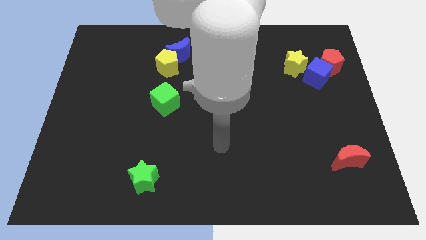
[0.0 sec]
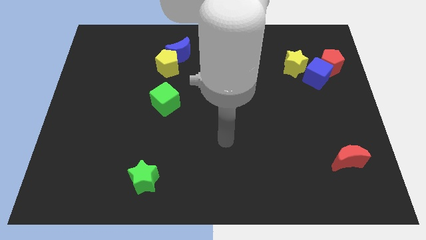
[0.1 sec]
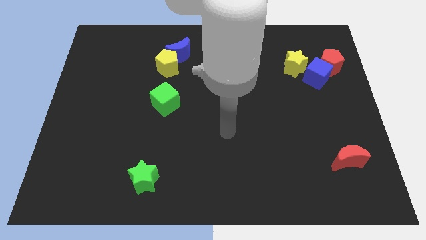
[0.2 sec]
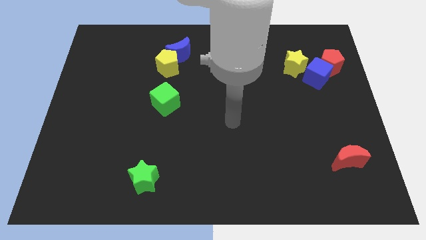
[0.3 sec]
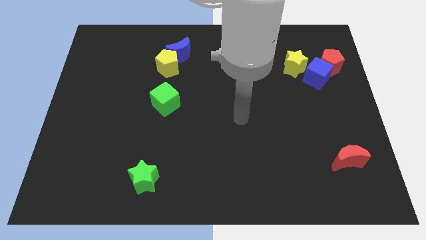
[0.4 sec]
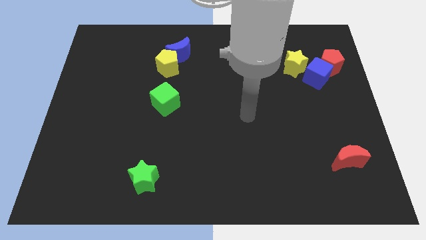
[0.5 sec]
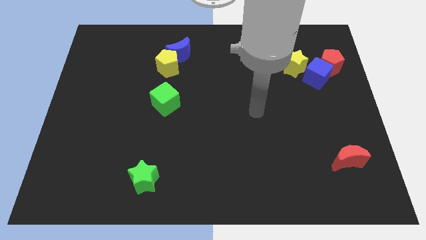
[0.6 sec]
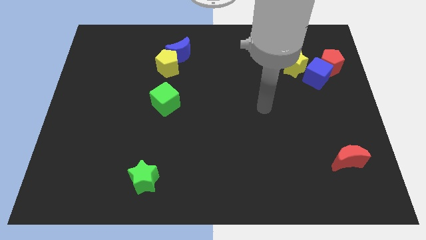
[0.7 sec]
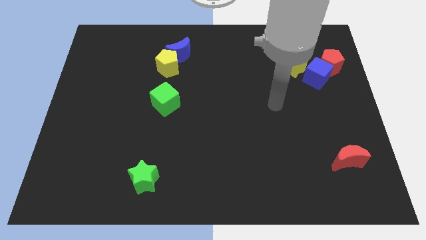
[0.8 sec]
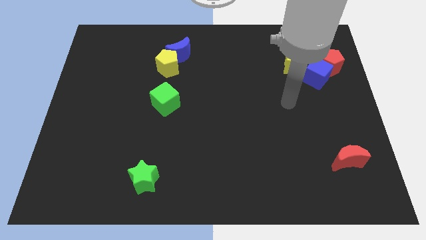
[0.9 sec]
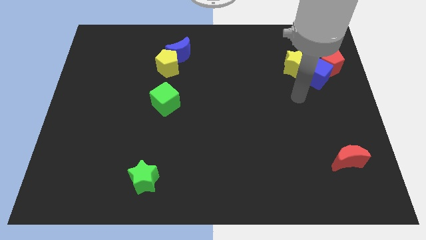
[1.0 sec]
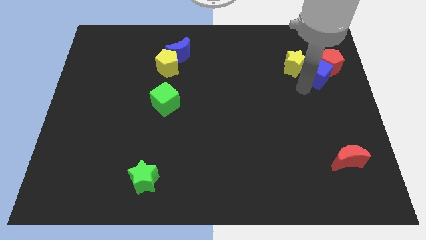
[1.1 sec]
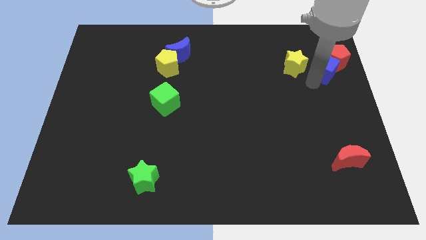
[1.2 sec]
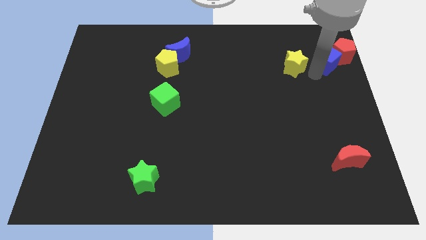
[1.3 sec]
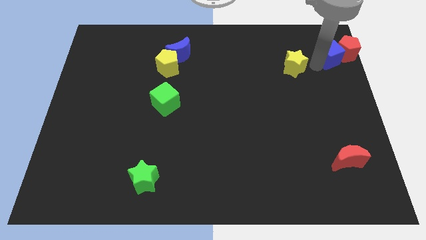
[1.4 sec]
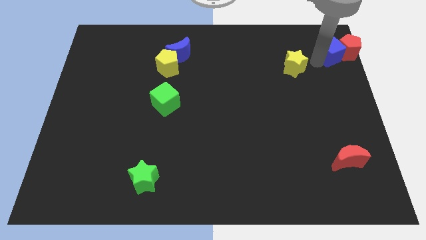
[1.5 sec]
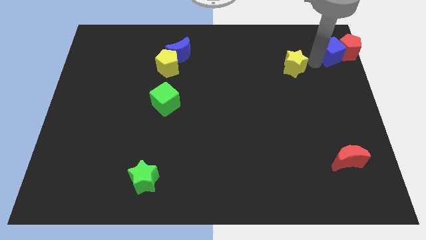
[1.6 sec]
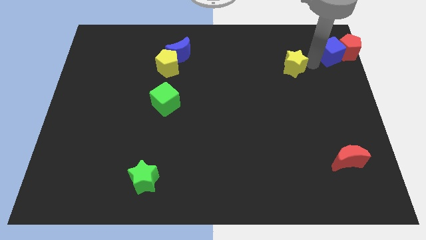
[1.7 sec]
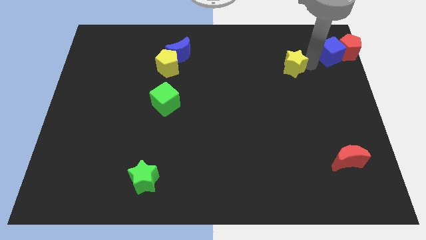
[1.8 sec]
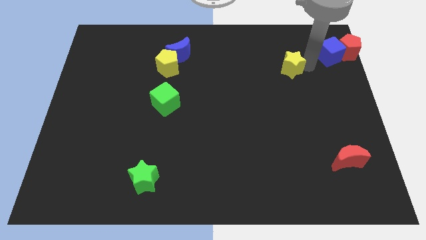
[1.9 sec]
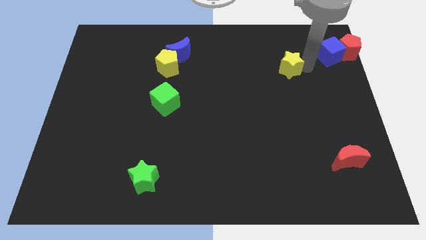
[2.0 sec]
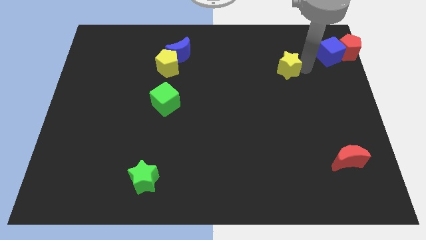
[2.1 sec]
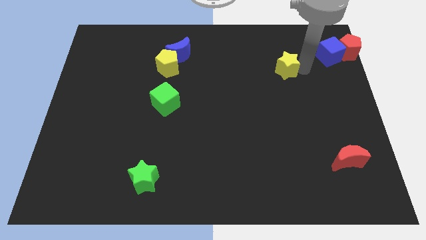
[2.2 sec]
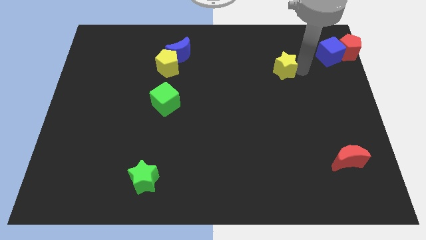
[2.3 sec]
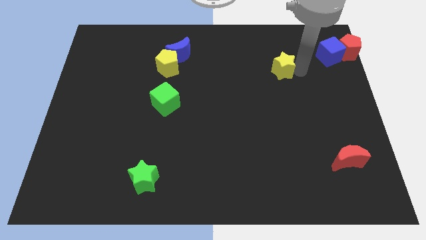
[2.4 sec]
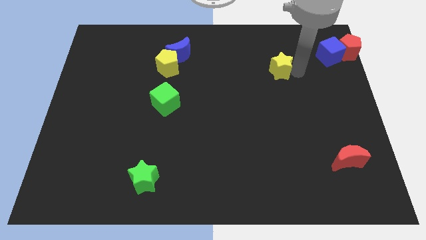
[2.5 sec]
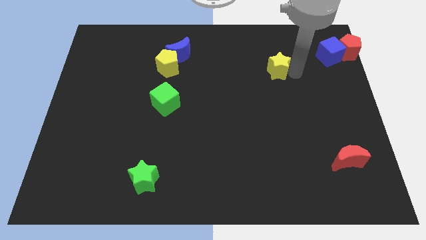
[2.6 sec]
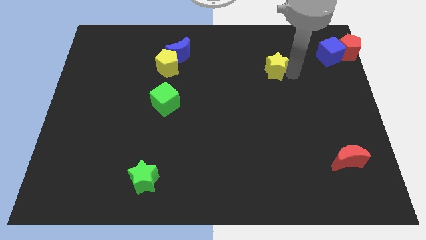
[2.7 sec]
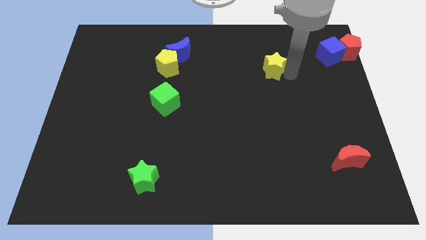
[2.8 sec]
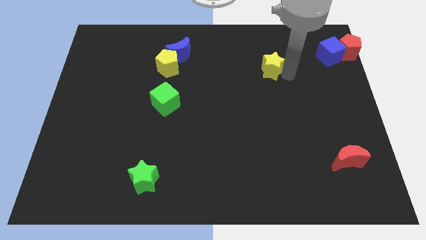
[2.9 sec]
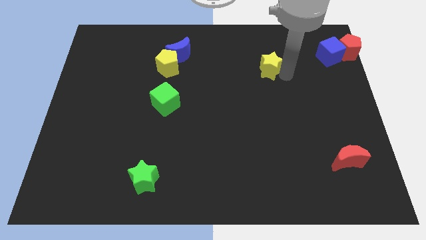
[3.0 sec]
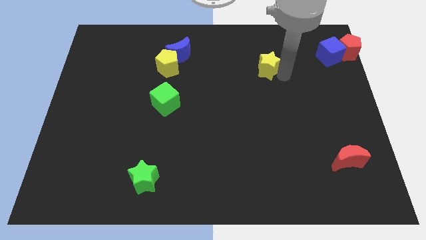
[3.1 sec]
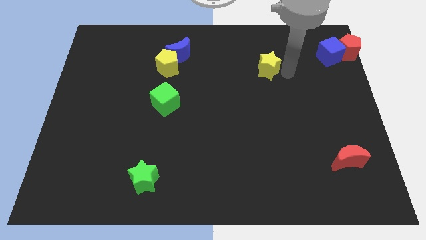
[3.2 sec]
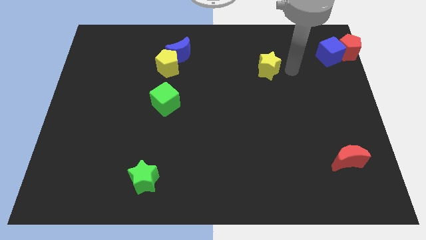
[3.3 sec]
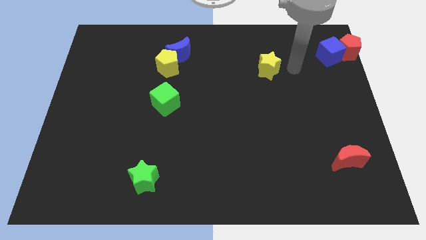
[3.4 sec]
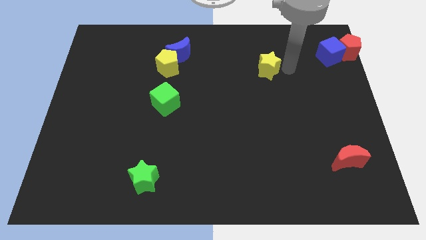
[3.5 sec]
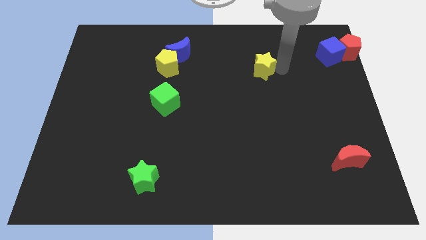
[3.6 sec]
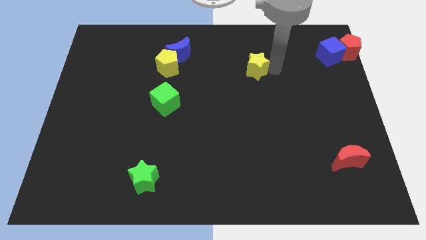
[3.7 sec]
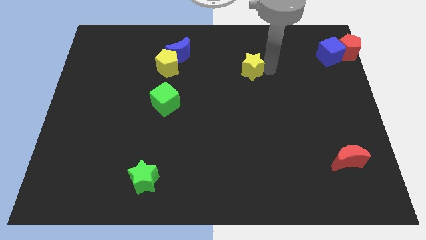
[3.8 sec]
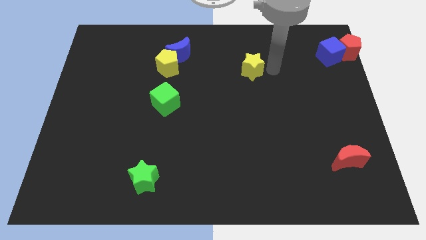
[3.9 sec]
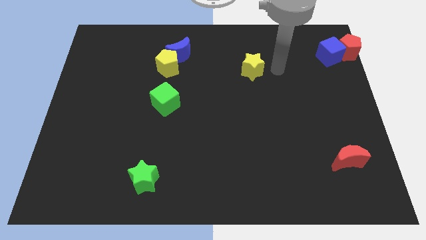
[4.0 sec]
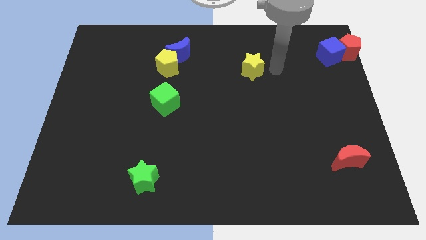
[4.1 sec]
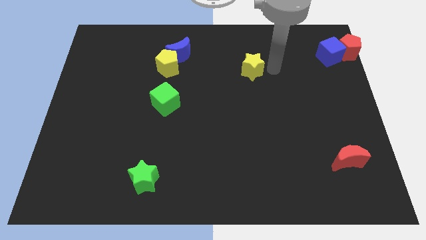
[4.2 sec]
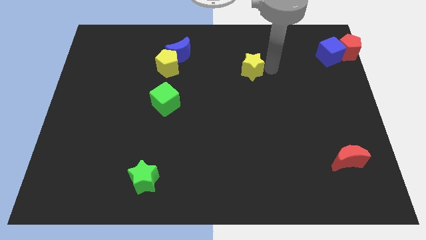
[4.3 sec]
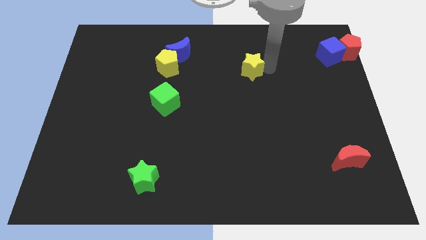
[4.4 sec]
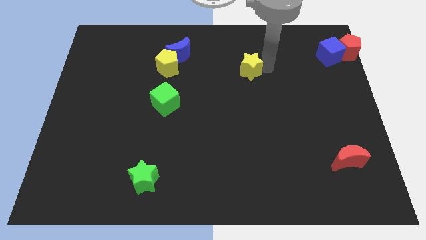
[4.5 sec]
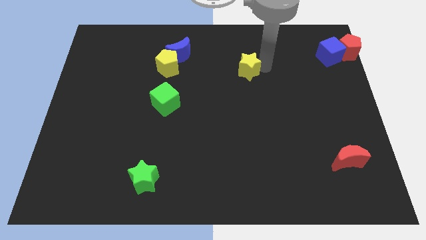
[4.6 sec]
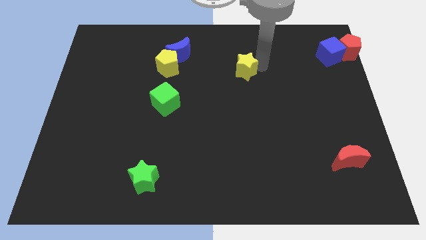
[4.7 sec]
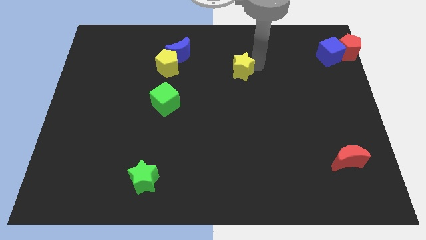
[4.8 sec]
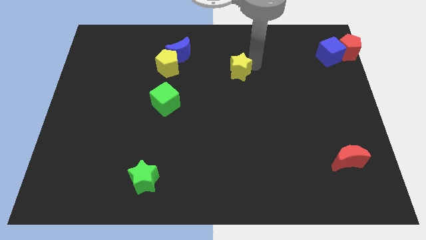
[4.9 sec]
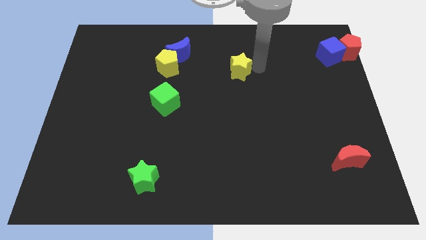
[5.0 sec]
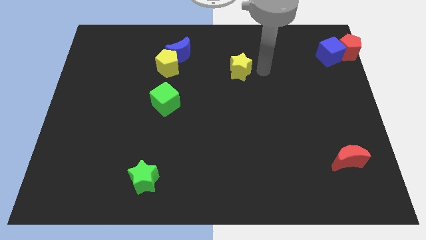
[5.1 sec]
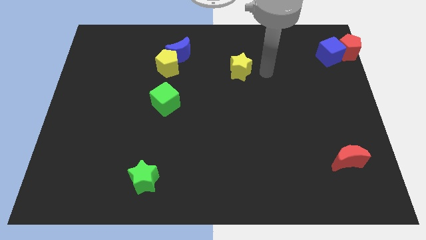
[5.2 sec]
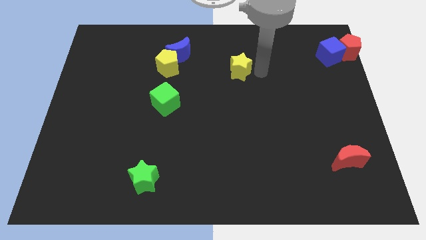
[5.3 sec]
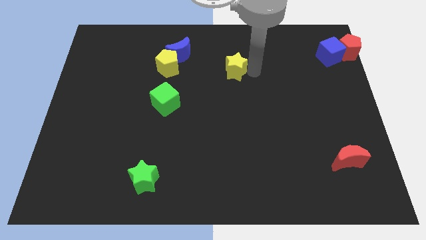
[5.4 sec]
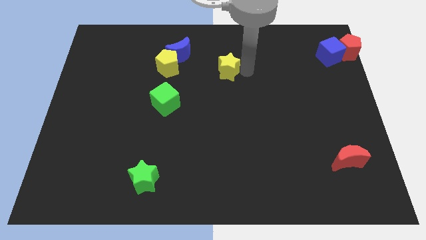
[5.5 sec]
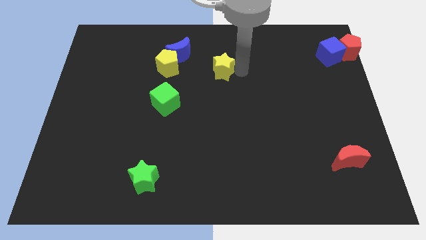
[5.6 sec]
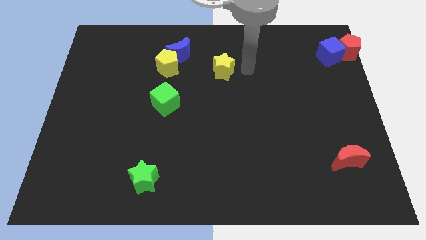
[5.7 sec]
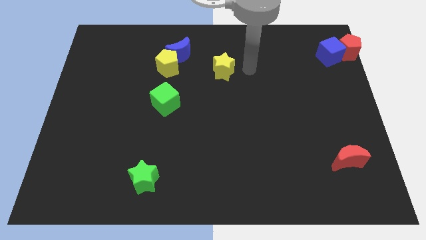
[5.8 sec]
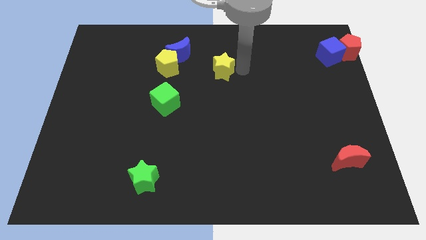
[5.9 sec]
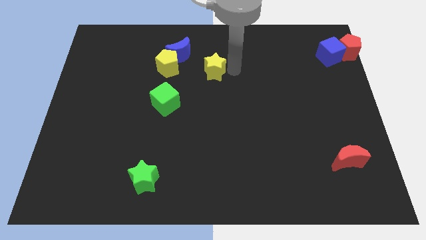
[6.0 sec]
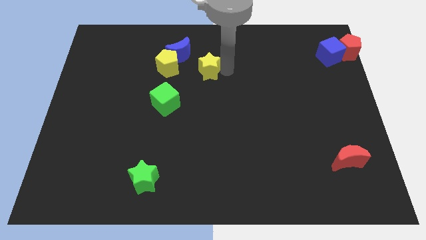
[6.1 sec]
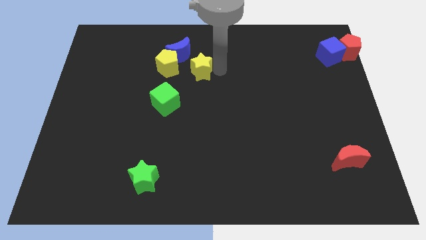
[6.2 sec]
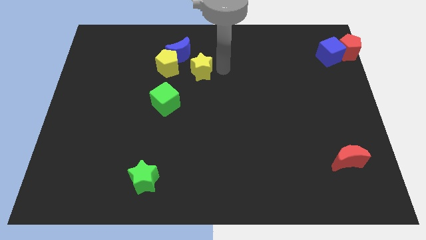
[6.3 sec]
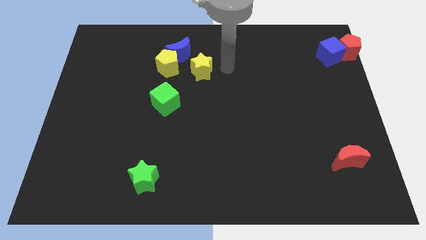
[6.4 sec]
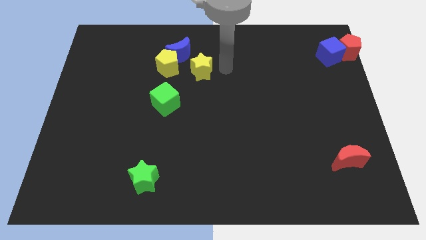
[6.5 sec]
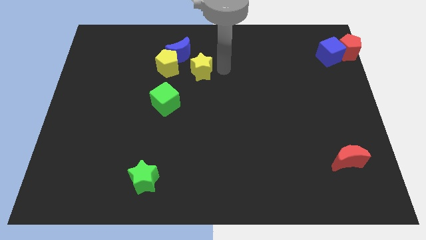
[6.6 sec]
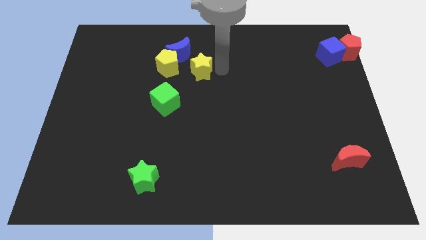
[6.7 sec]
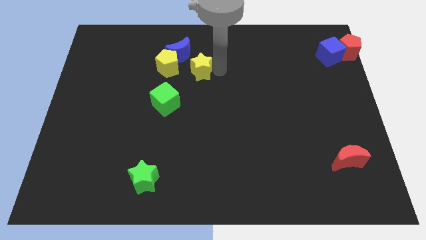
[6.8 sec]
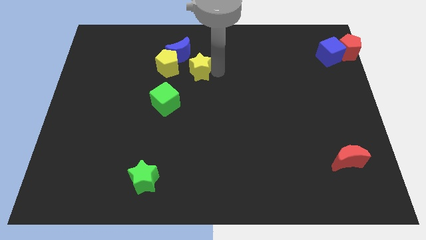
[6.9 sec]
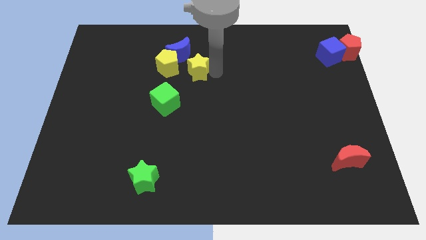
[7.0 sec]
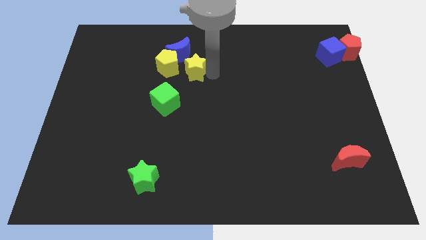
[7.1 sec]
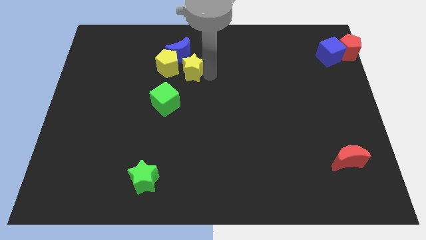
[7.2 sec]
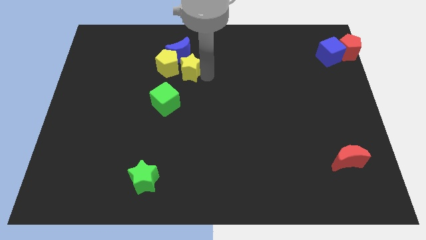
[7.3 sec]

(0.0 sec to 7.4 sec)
move the yellow star next to the yellow pentagon

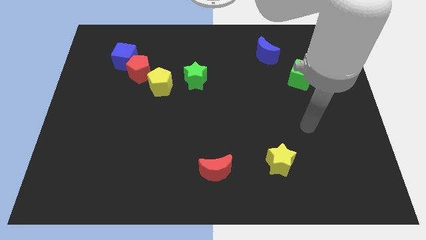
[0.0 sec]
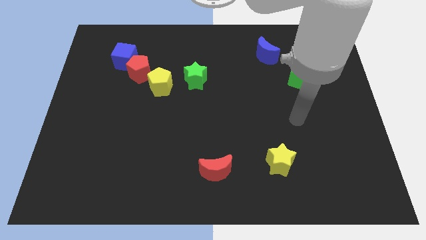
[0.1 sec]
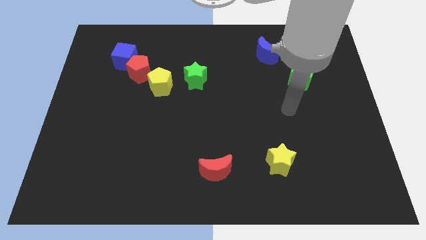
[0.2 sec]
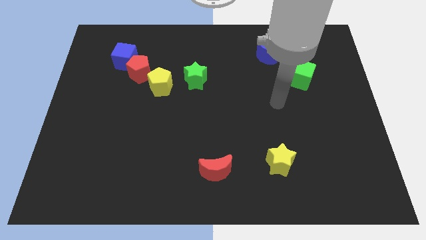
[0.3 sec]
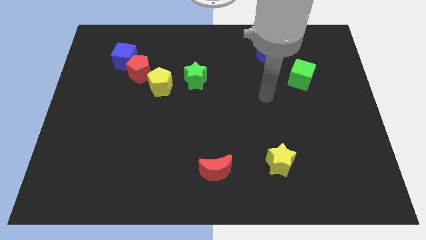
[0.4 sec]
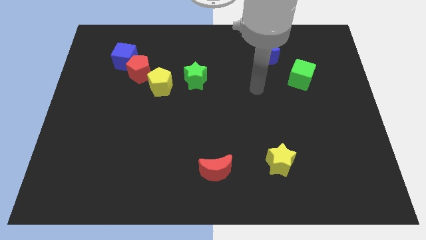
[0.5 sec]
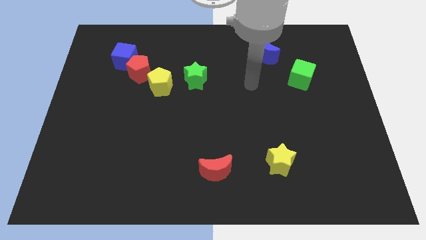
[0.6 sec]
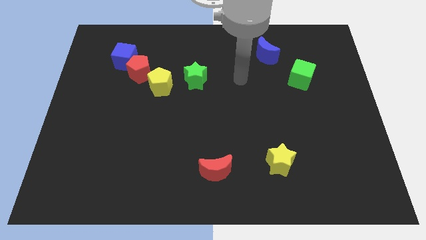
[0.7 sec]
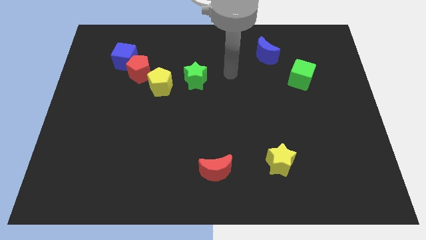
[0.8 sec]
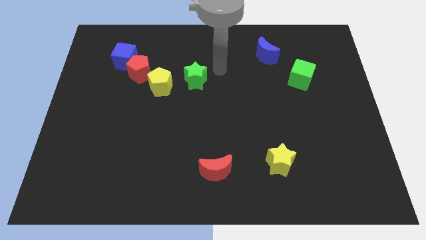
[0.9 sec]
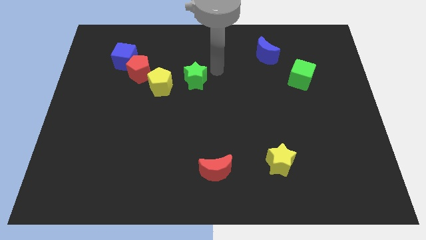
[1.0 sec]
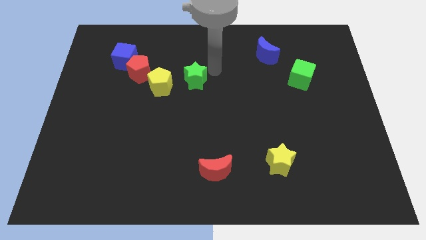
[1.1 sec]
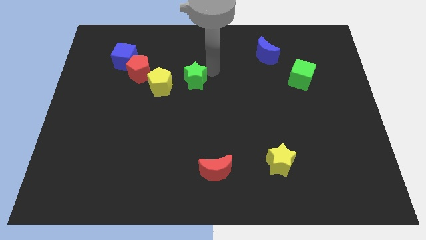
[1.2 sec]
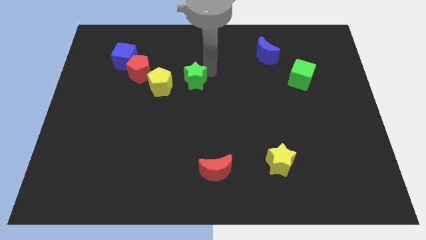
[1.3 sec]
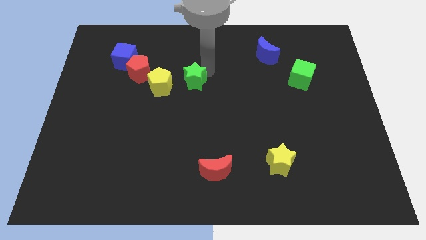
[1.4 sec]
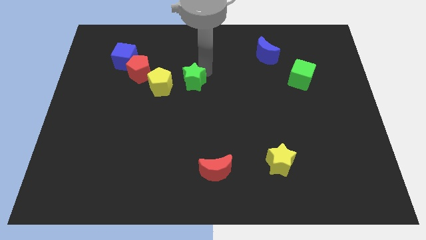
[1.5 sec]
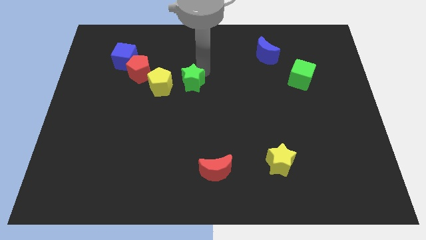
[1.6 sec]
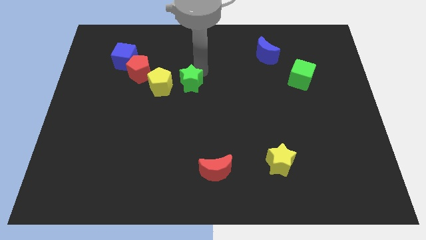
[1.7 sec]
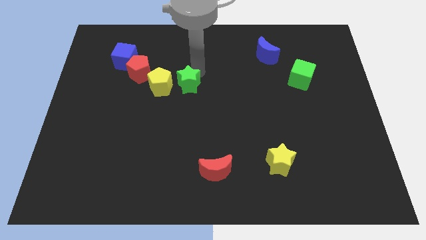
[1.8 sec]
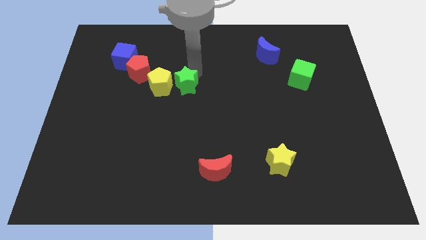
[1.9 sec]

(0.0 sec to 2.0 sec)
move the green star towards the yellow pentagon
